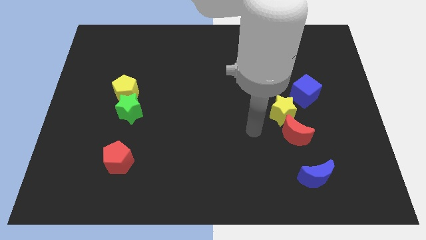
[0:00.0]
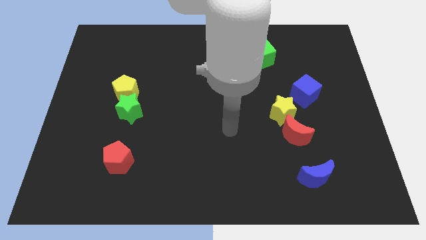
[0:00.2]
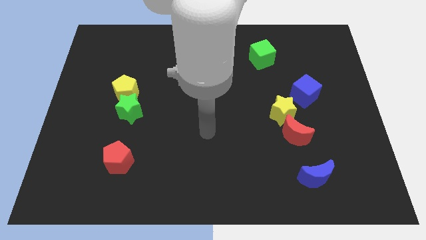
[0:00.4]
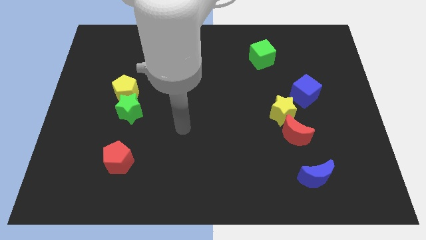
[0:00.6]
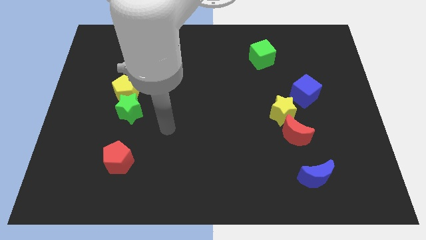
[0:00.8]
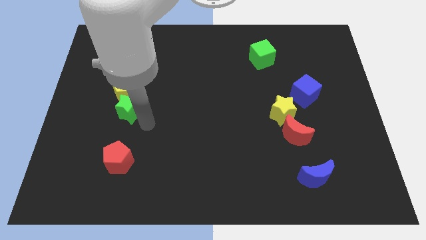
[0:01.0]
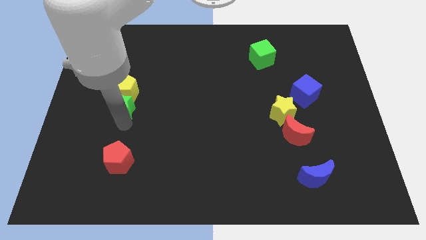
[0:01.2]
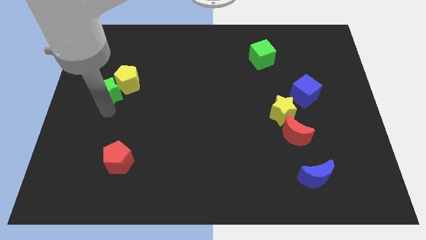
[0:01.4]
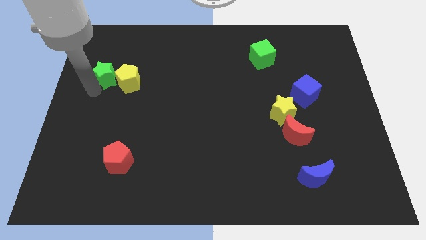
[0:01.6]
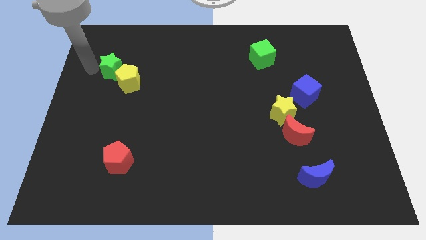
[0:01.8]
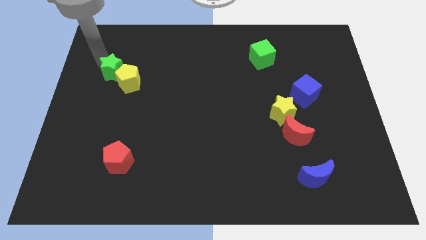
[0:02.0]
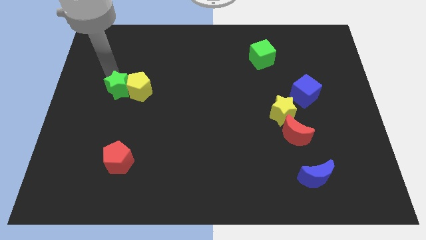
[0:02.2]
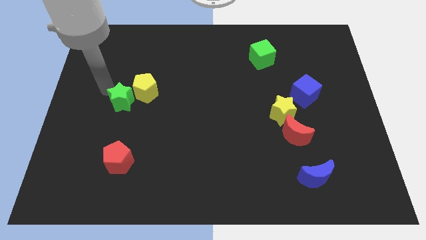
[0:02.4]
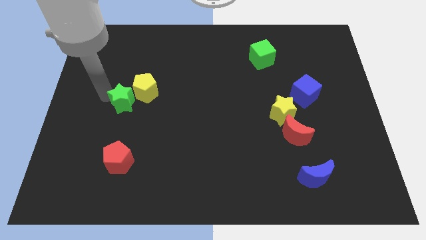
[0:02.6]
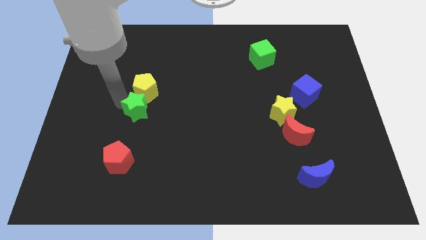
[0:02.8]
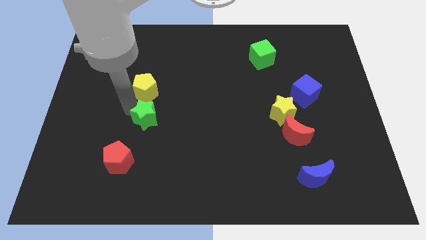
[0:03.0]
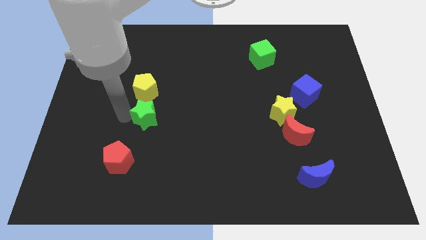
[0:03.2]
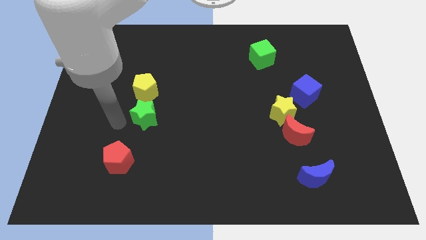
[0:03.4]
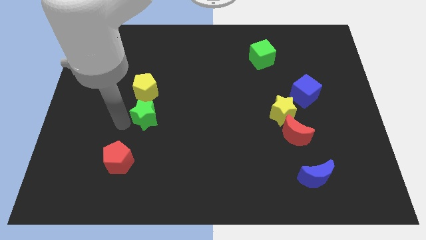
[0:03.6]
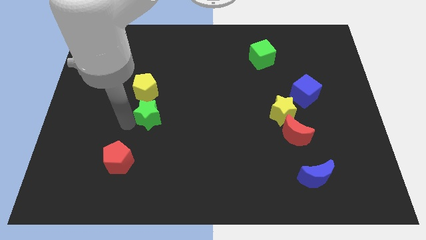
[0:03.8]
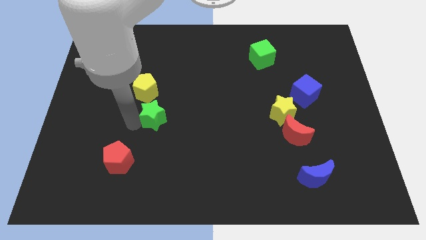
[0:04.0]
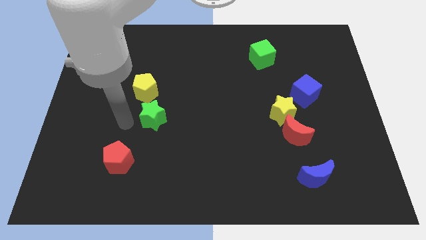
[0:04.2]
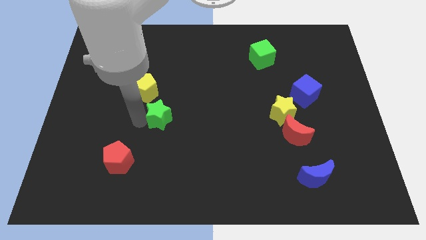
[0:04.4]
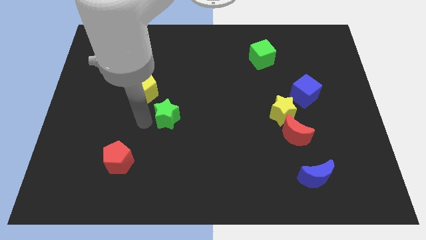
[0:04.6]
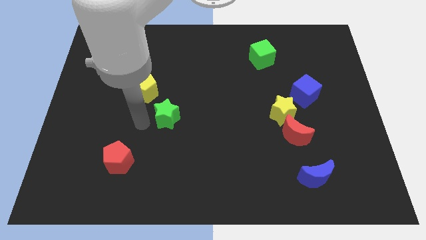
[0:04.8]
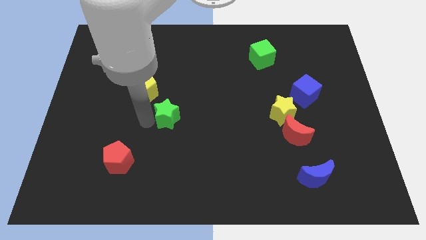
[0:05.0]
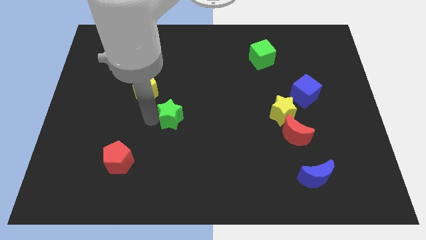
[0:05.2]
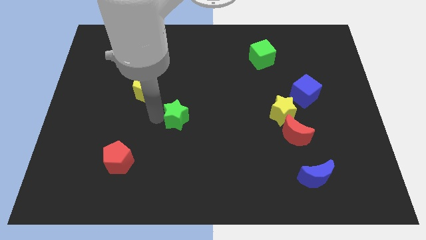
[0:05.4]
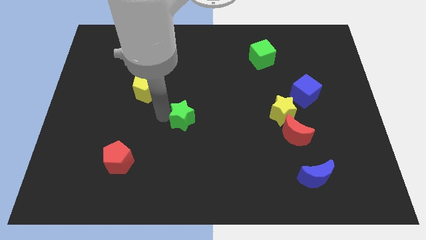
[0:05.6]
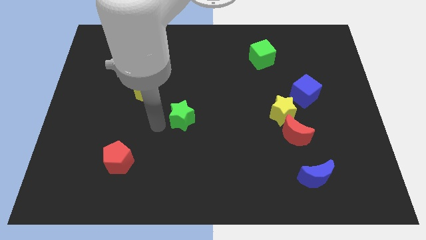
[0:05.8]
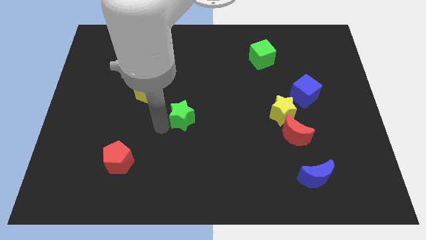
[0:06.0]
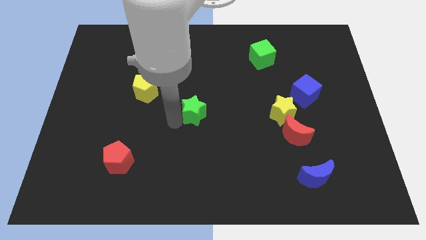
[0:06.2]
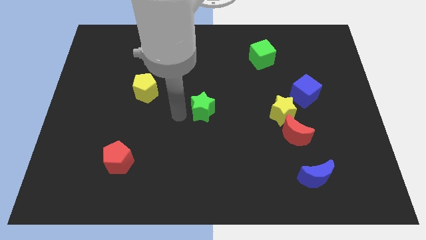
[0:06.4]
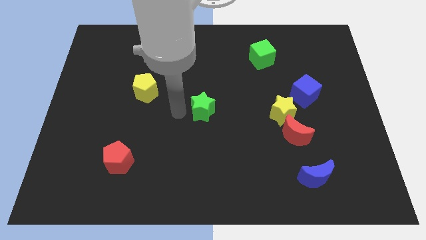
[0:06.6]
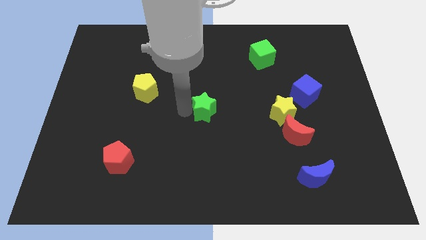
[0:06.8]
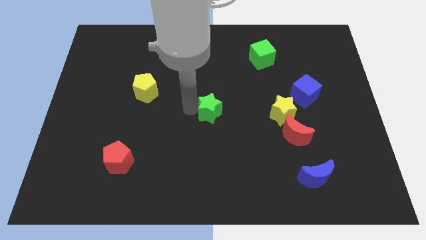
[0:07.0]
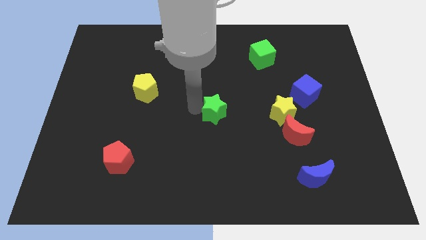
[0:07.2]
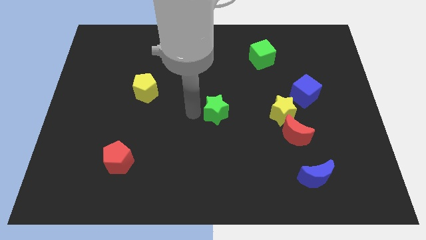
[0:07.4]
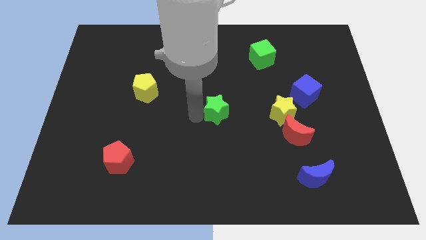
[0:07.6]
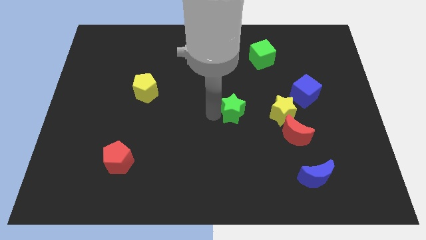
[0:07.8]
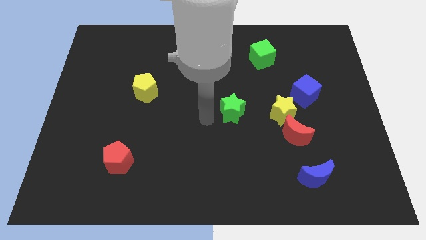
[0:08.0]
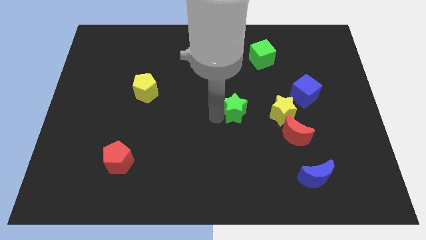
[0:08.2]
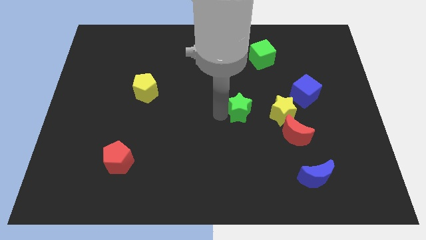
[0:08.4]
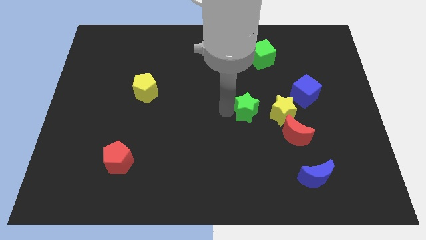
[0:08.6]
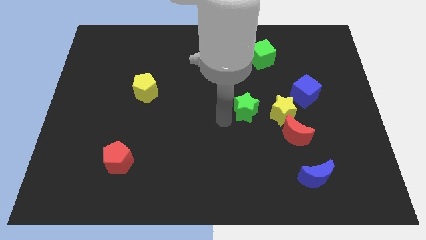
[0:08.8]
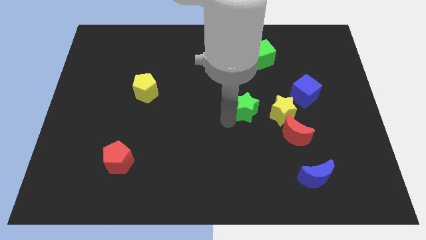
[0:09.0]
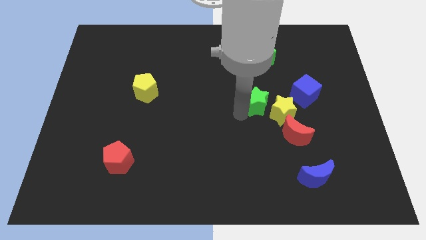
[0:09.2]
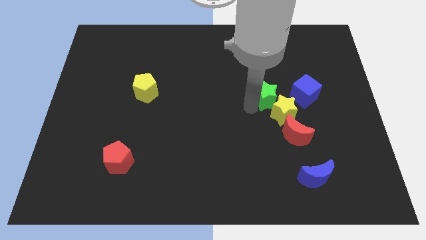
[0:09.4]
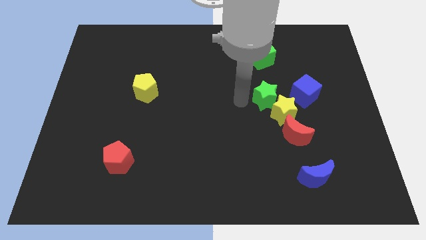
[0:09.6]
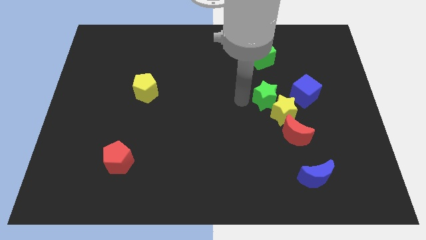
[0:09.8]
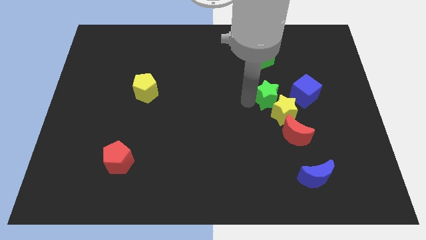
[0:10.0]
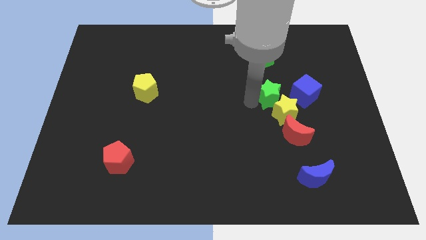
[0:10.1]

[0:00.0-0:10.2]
move the green star above the red moon

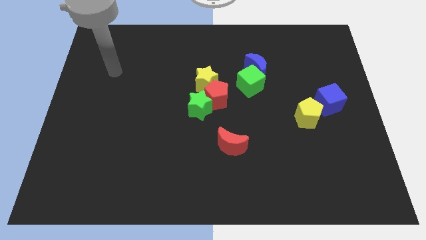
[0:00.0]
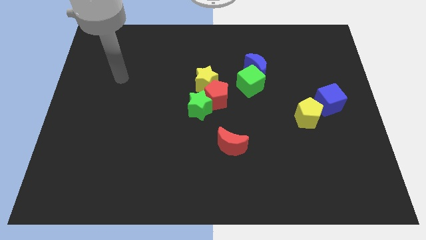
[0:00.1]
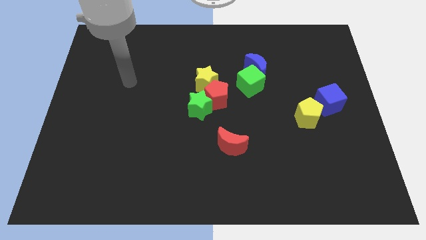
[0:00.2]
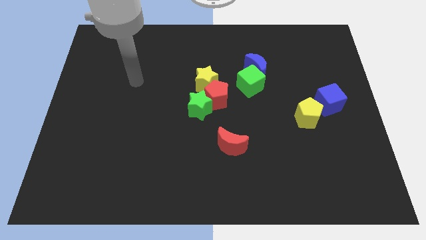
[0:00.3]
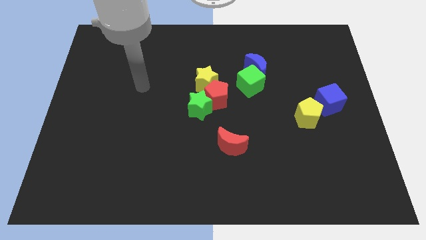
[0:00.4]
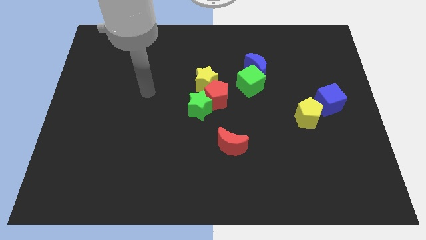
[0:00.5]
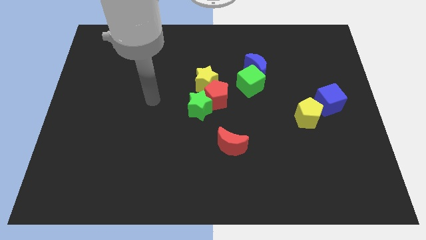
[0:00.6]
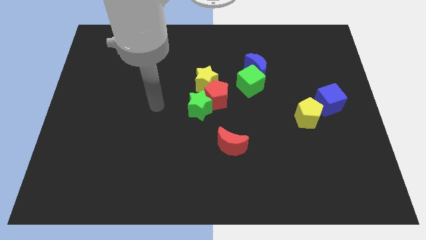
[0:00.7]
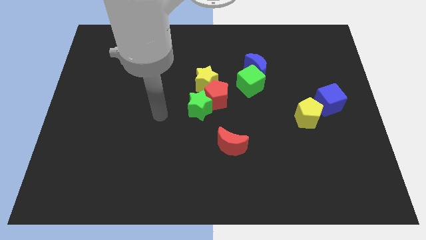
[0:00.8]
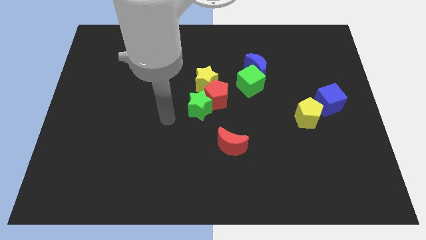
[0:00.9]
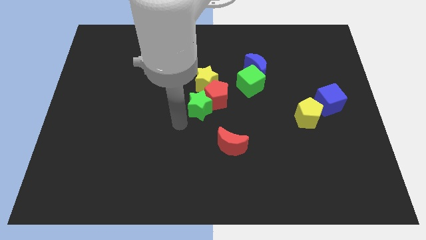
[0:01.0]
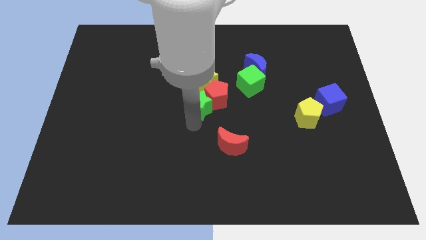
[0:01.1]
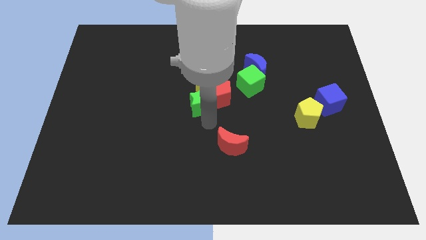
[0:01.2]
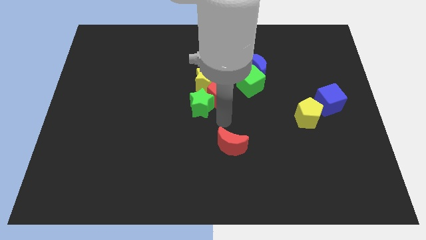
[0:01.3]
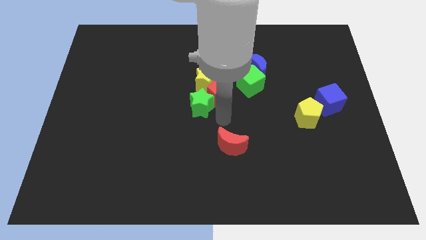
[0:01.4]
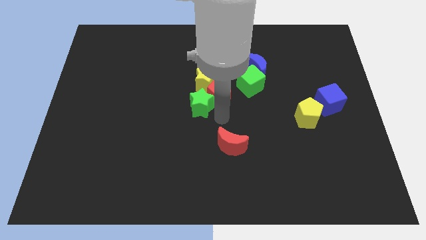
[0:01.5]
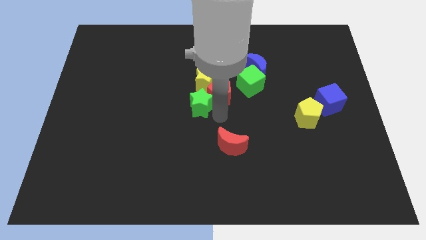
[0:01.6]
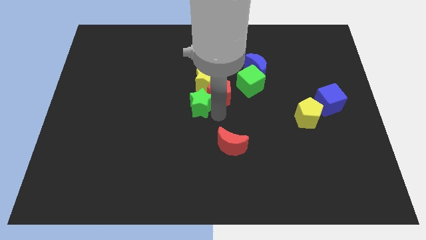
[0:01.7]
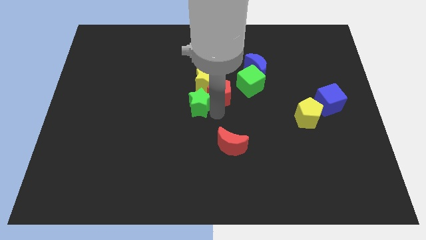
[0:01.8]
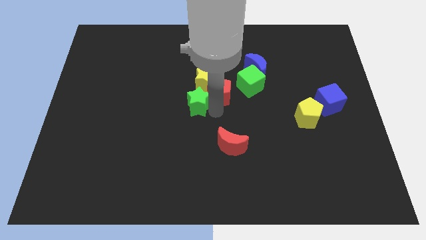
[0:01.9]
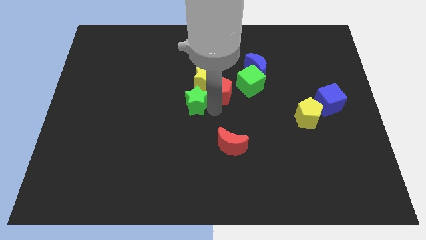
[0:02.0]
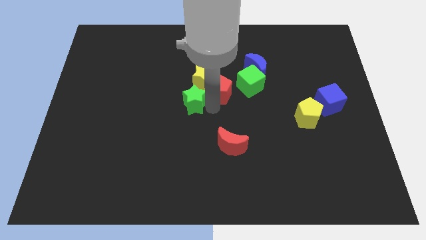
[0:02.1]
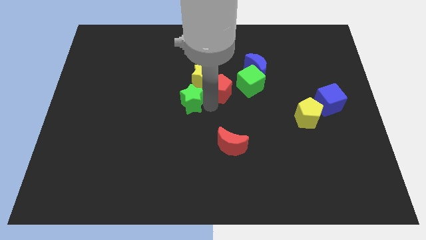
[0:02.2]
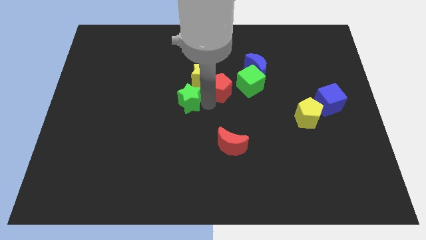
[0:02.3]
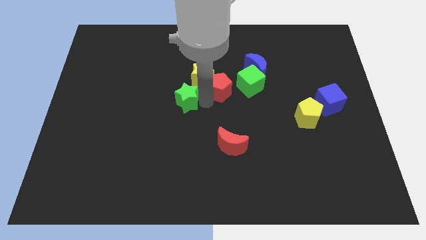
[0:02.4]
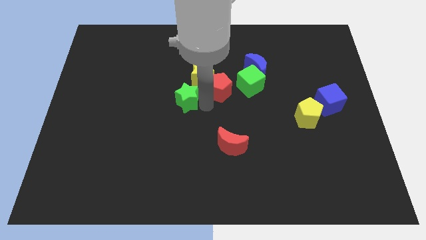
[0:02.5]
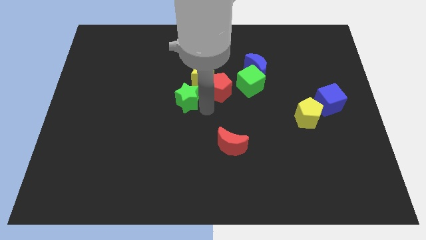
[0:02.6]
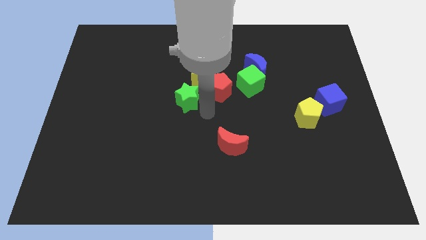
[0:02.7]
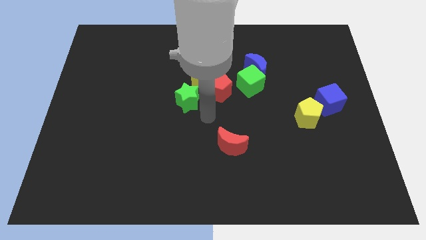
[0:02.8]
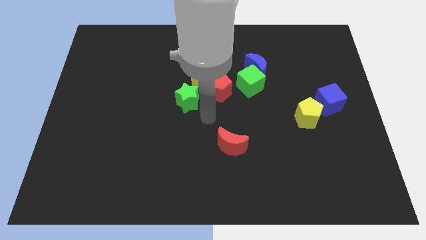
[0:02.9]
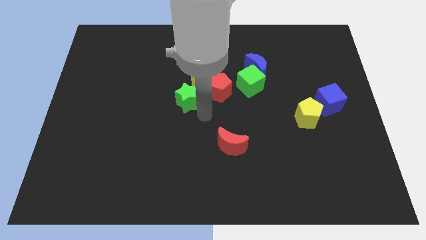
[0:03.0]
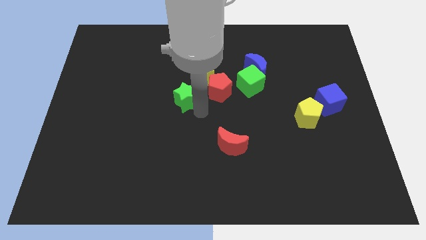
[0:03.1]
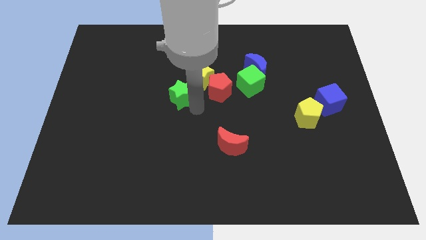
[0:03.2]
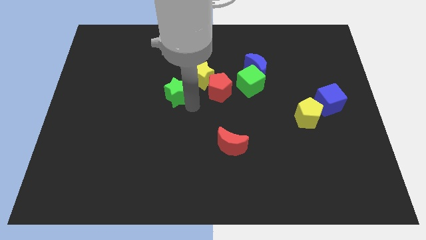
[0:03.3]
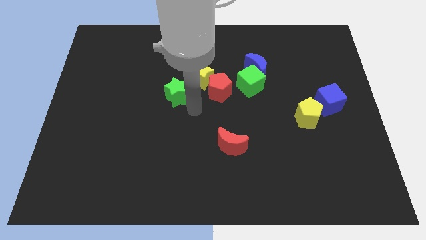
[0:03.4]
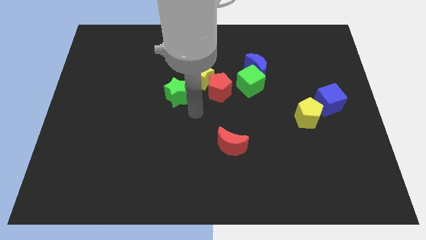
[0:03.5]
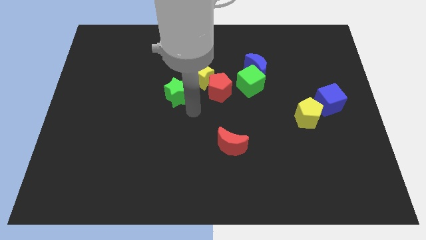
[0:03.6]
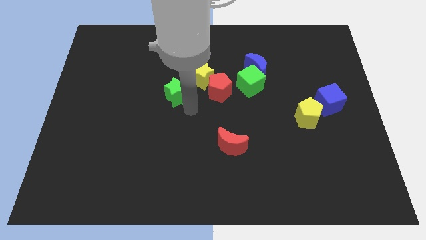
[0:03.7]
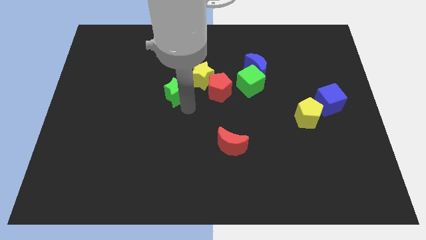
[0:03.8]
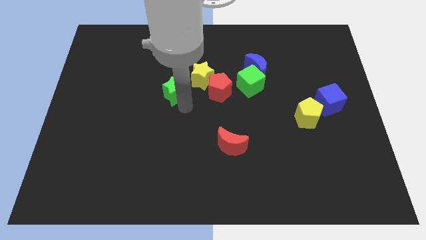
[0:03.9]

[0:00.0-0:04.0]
put the green star left of the yellow star
